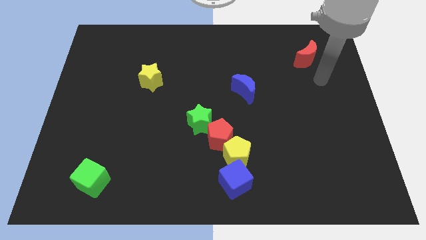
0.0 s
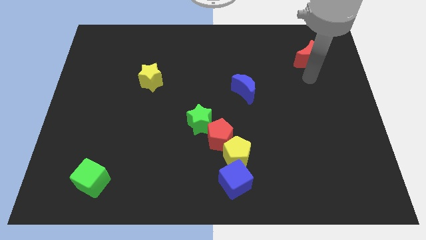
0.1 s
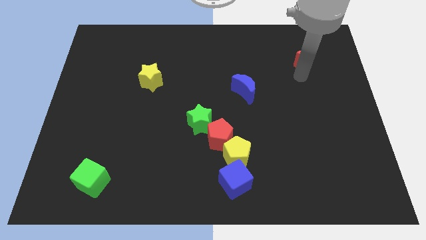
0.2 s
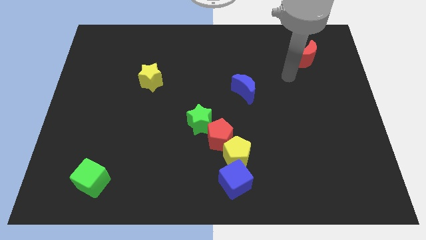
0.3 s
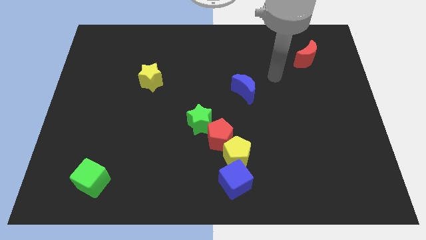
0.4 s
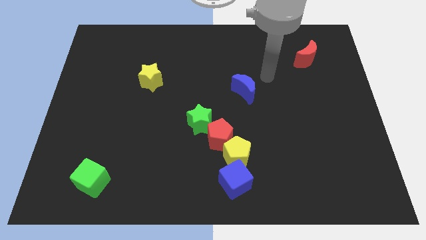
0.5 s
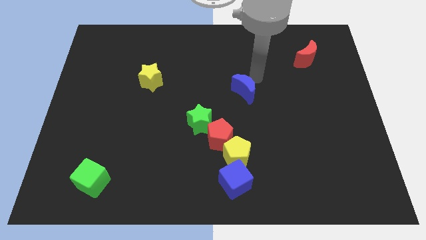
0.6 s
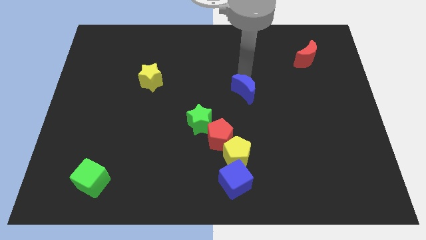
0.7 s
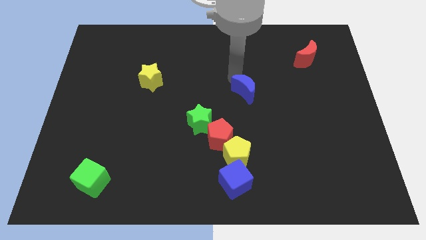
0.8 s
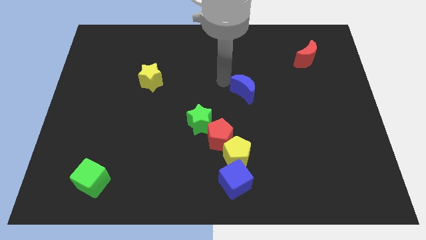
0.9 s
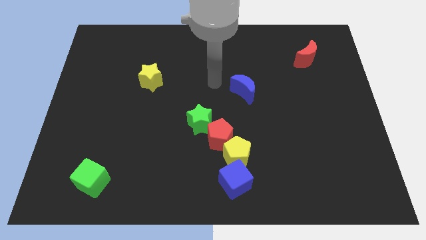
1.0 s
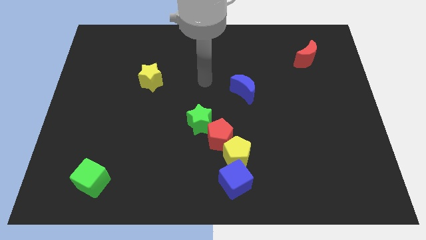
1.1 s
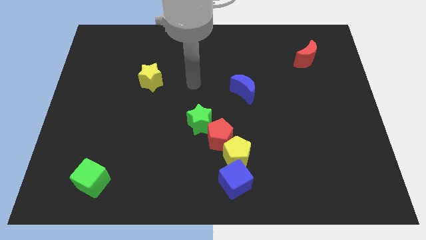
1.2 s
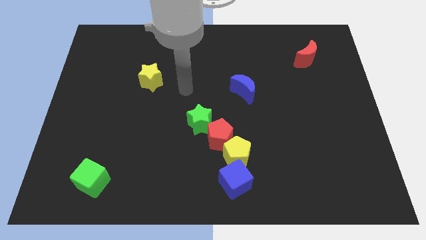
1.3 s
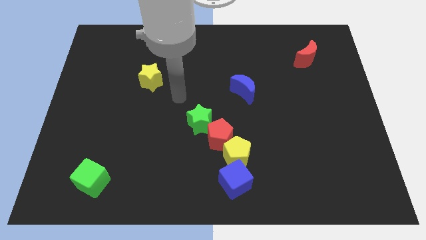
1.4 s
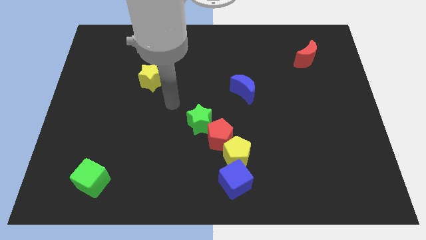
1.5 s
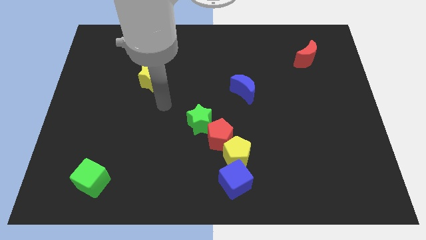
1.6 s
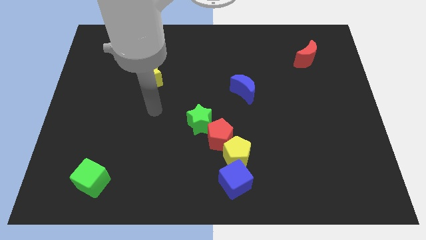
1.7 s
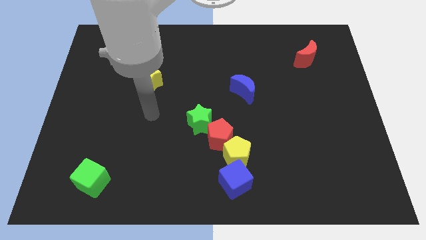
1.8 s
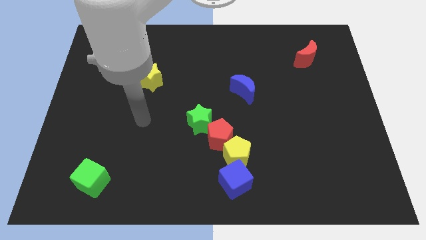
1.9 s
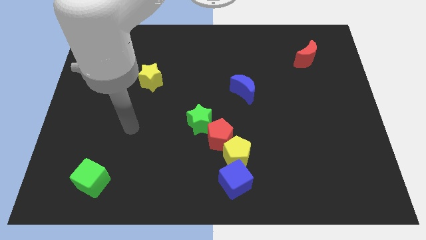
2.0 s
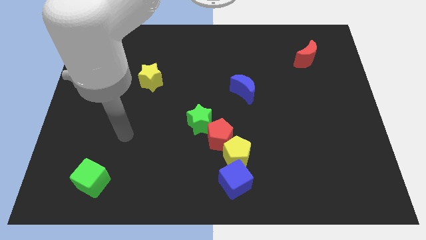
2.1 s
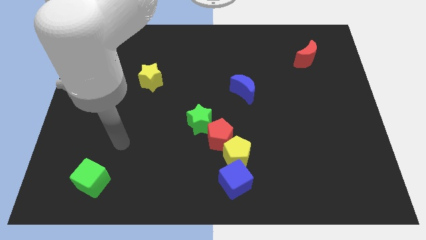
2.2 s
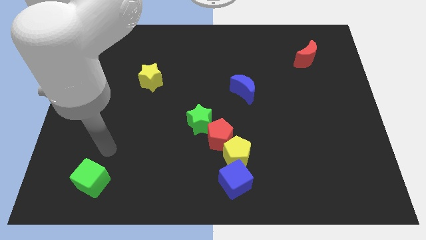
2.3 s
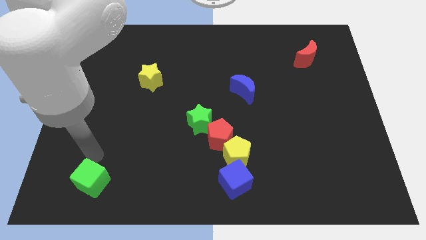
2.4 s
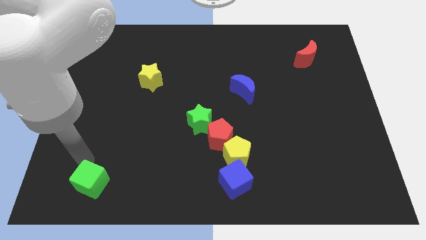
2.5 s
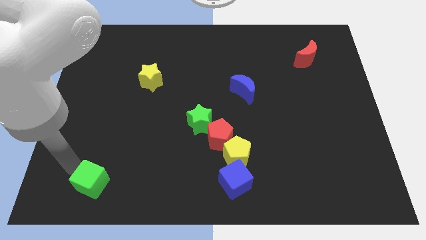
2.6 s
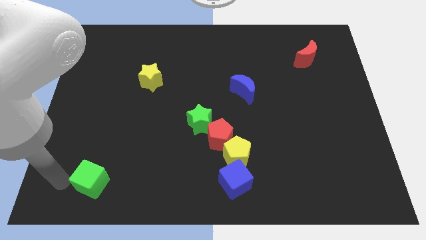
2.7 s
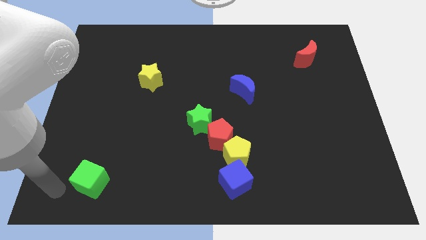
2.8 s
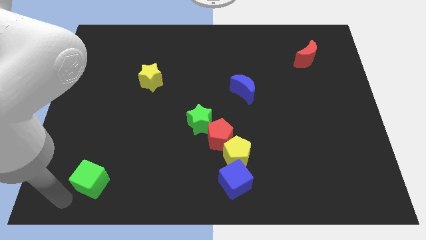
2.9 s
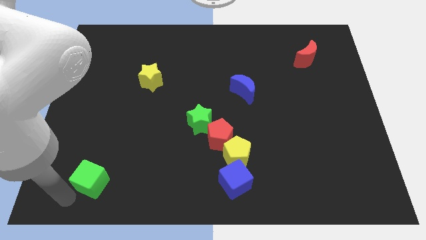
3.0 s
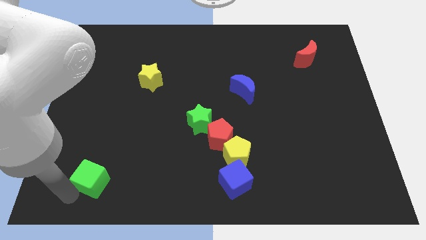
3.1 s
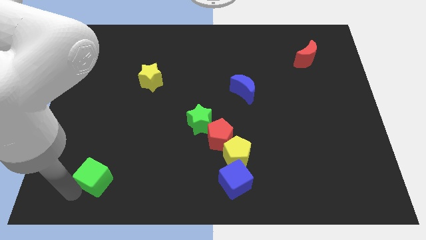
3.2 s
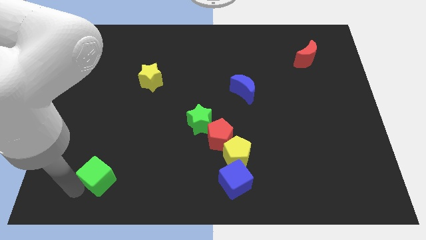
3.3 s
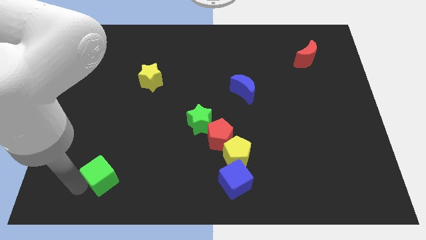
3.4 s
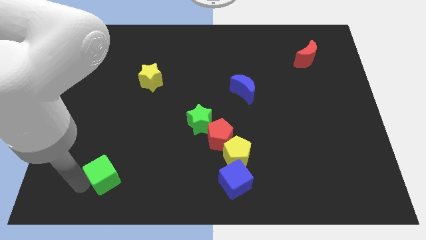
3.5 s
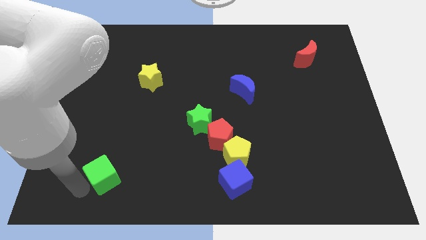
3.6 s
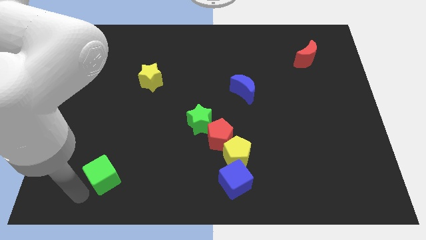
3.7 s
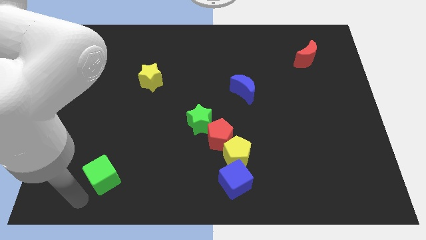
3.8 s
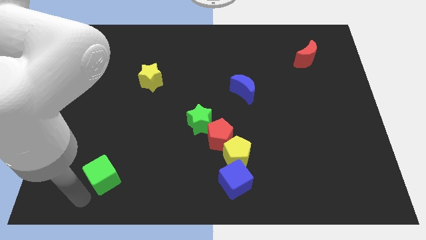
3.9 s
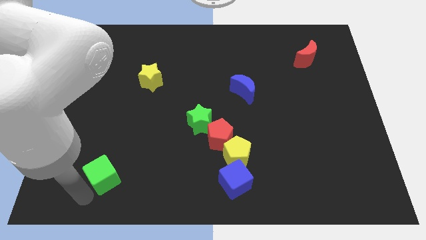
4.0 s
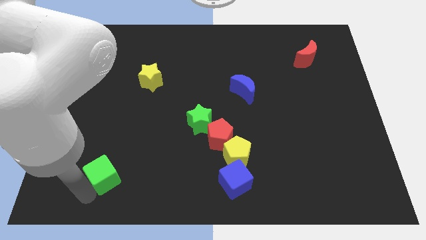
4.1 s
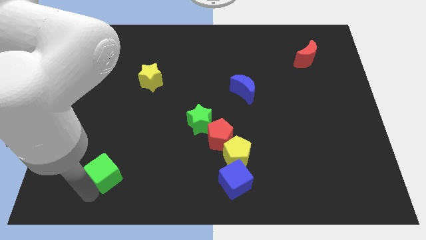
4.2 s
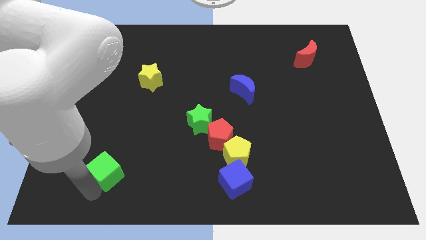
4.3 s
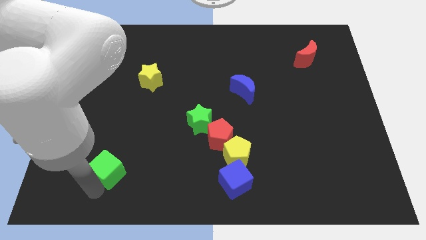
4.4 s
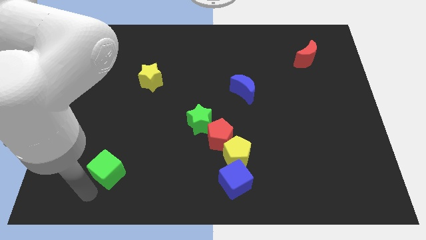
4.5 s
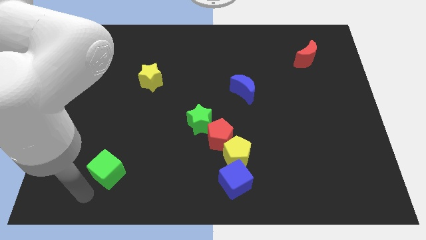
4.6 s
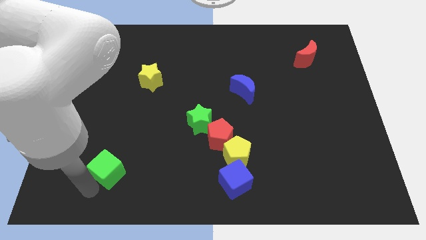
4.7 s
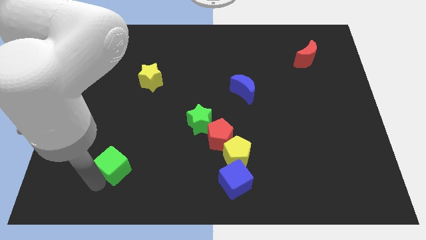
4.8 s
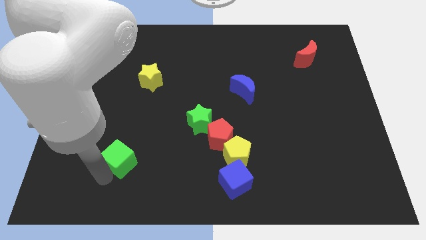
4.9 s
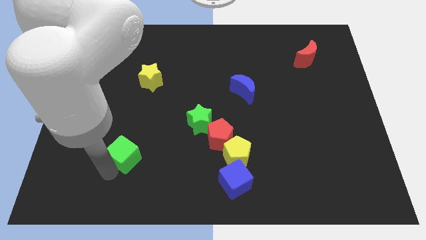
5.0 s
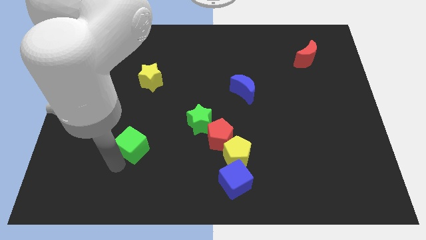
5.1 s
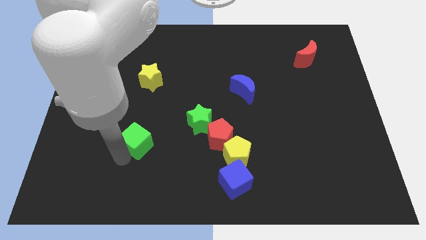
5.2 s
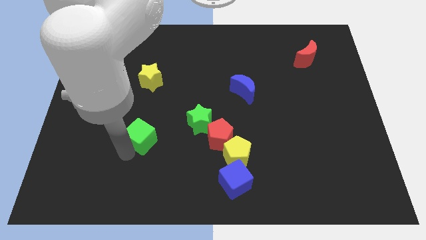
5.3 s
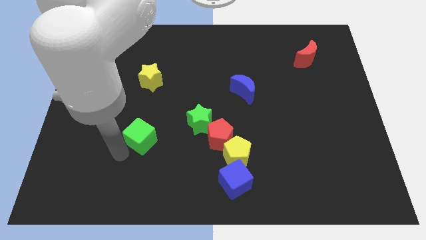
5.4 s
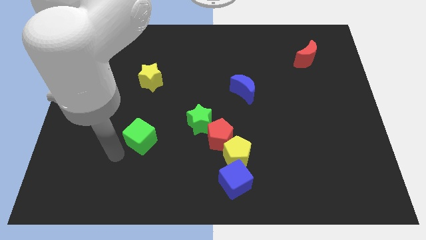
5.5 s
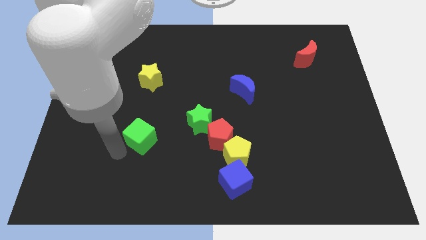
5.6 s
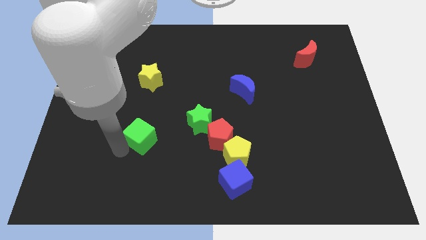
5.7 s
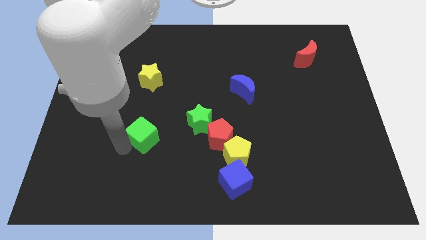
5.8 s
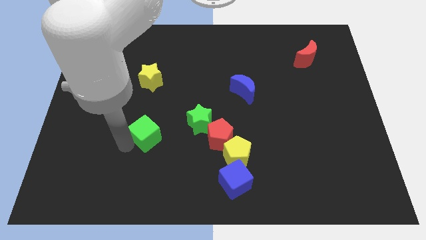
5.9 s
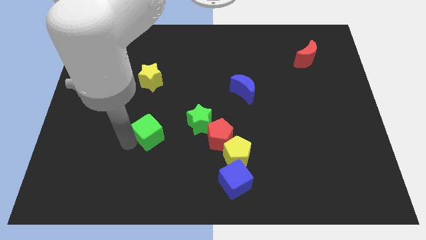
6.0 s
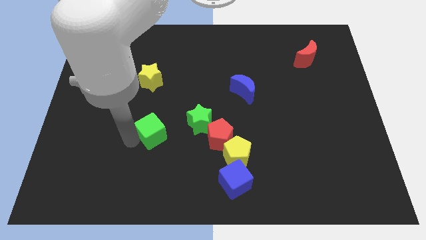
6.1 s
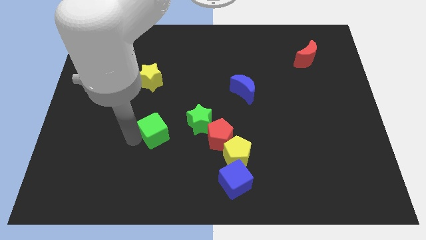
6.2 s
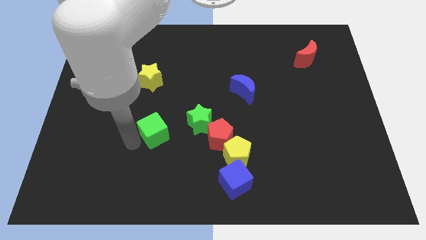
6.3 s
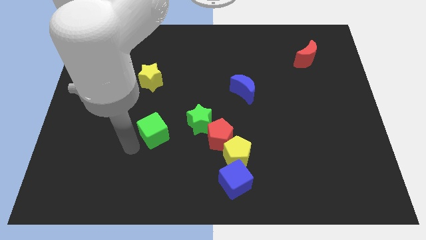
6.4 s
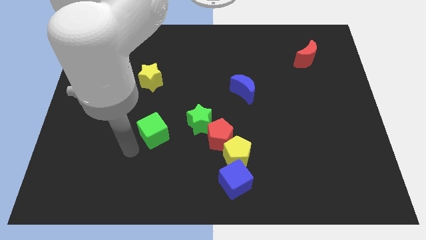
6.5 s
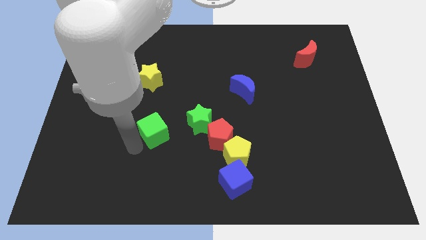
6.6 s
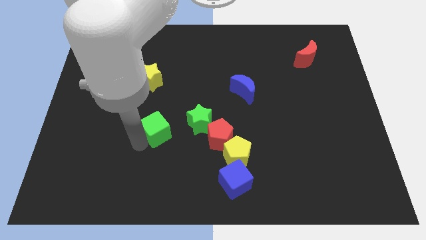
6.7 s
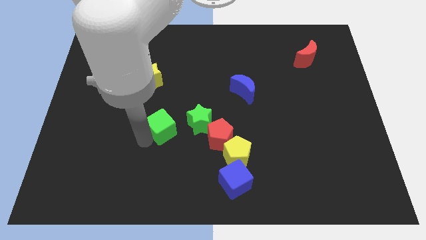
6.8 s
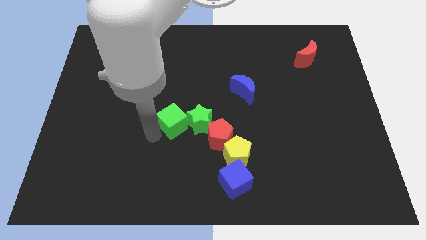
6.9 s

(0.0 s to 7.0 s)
move the green cube to the middle
